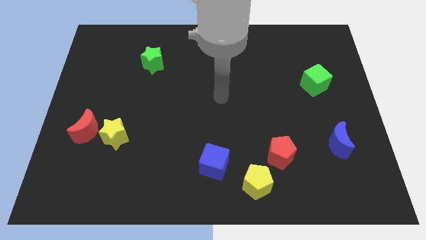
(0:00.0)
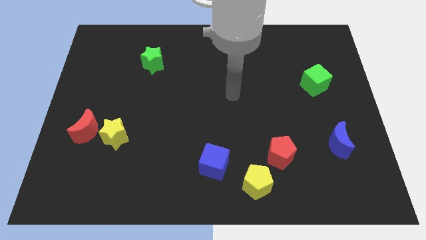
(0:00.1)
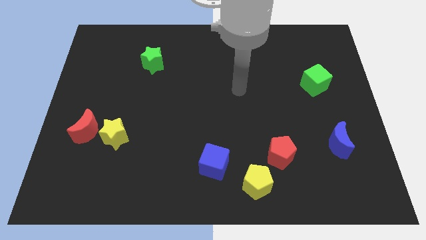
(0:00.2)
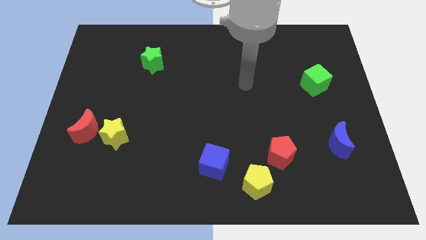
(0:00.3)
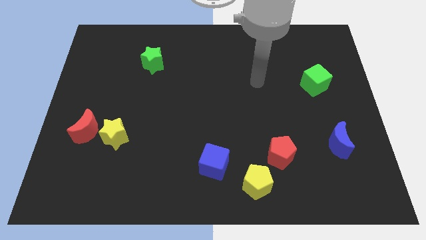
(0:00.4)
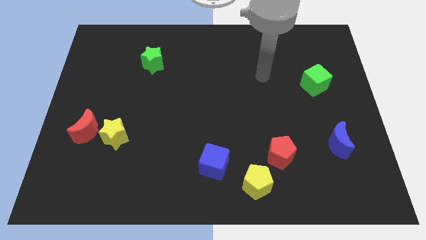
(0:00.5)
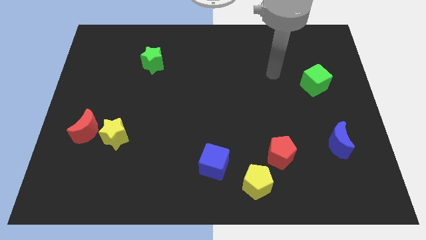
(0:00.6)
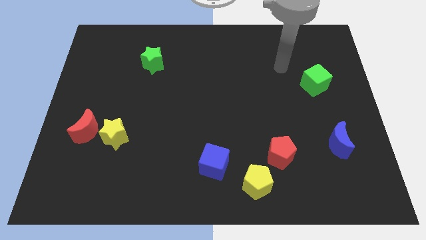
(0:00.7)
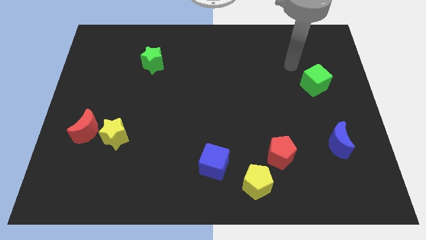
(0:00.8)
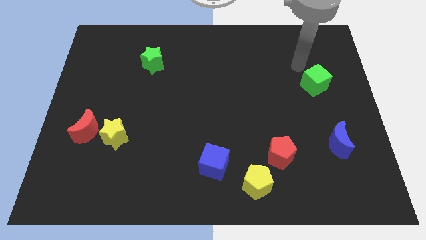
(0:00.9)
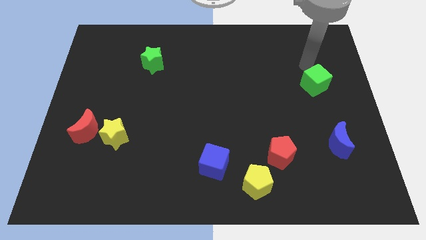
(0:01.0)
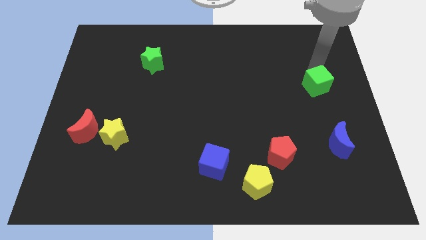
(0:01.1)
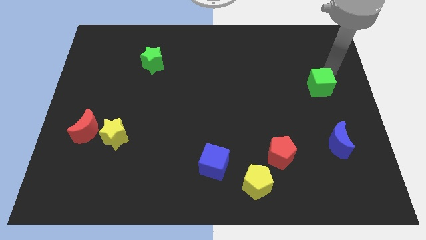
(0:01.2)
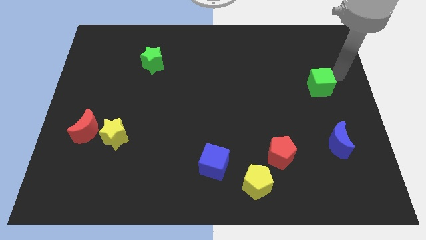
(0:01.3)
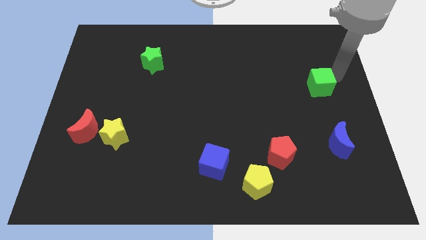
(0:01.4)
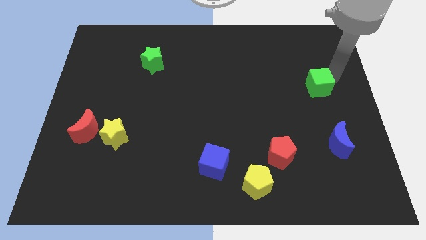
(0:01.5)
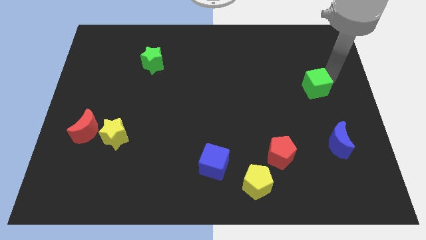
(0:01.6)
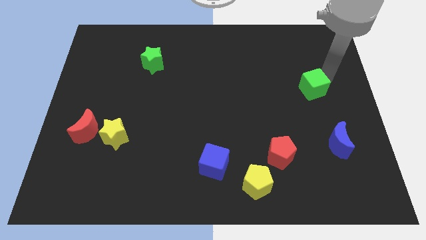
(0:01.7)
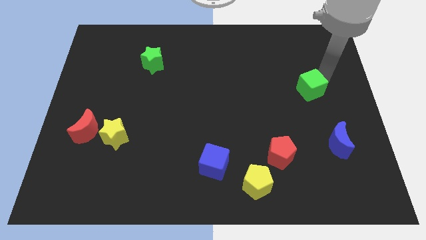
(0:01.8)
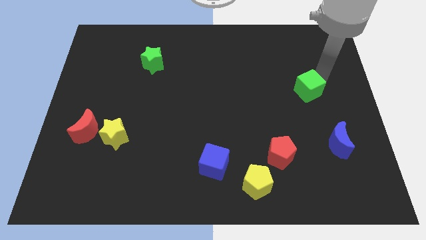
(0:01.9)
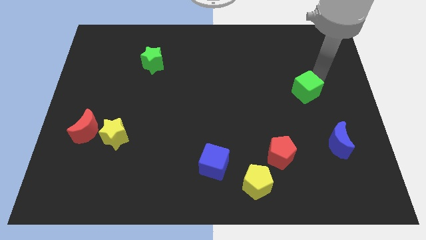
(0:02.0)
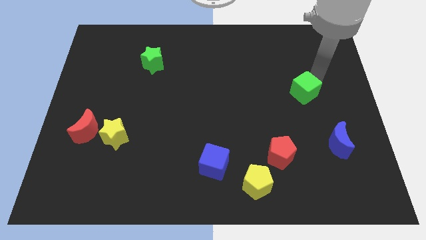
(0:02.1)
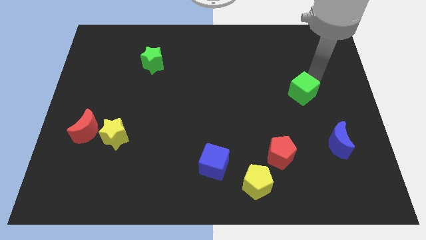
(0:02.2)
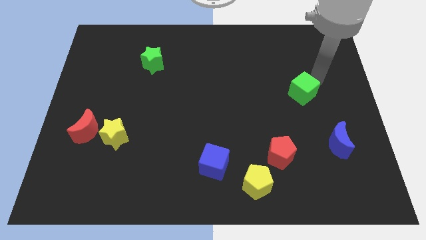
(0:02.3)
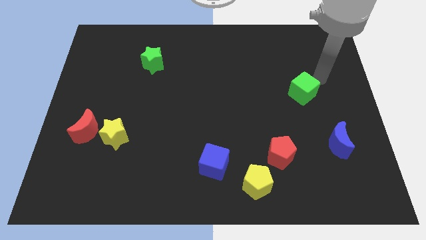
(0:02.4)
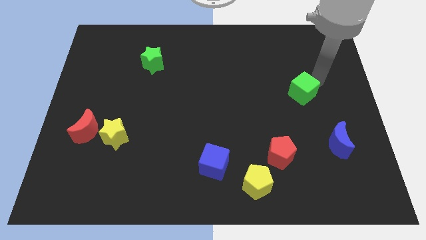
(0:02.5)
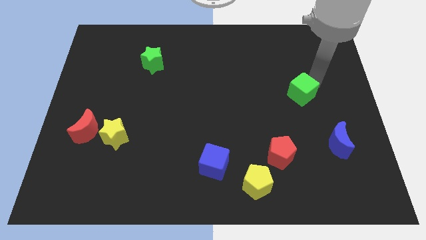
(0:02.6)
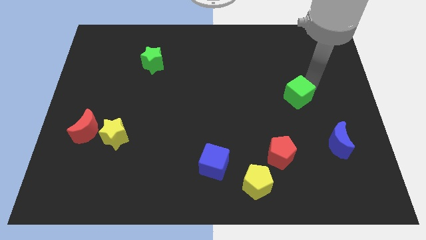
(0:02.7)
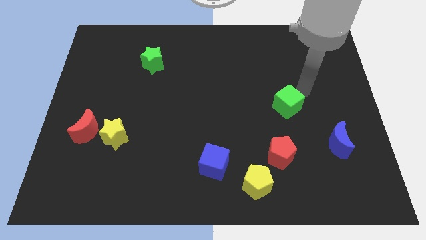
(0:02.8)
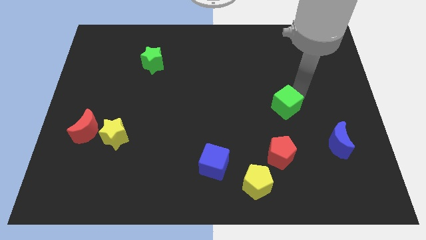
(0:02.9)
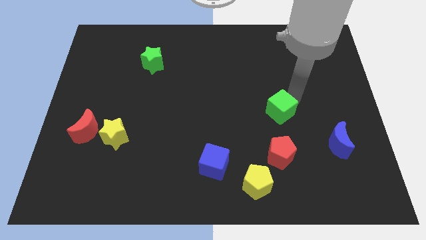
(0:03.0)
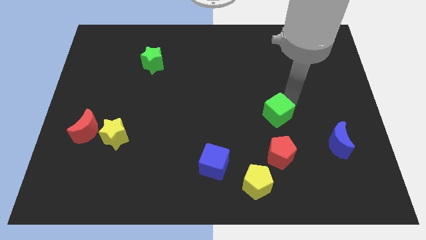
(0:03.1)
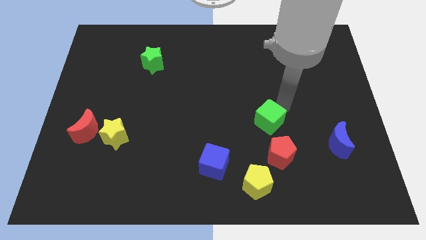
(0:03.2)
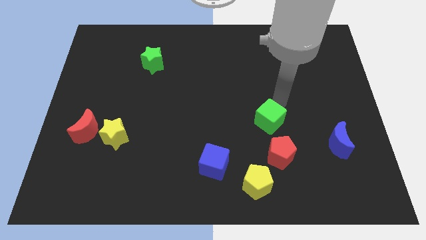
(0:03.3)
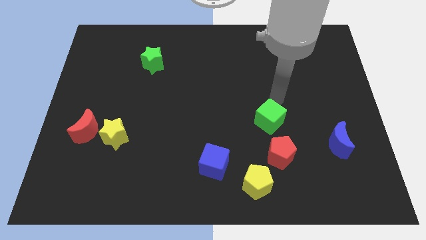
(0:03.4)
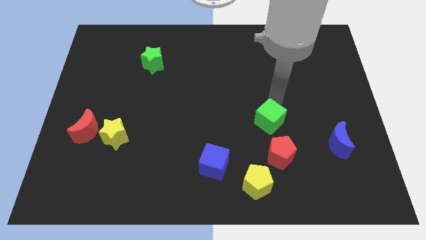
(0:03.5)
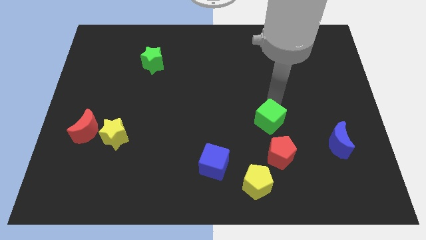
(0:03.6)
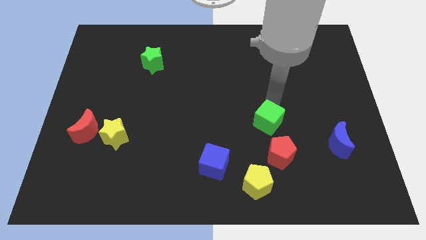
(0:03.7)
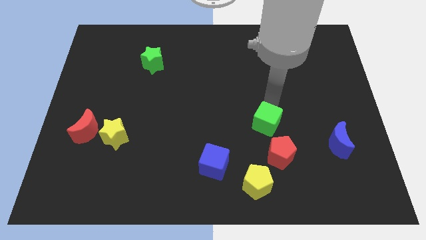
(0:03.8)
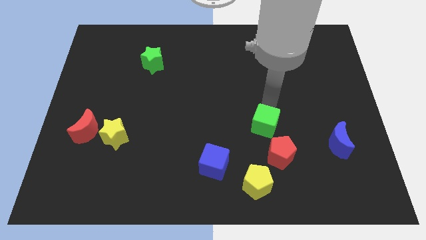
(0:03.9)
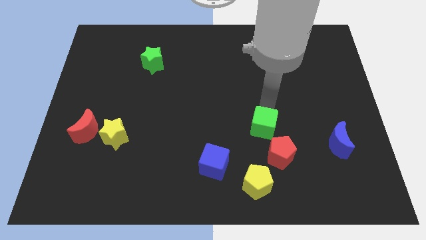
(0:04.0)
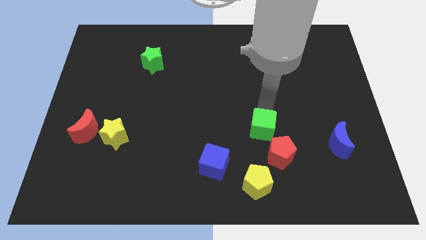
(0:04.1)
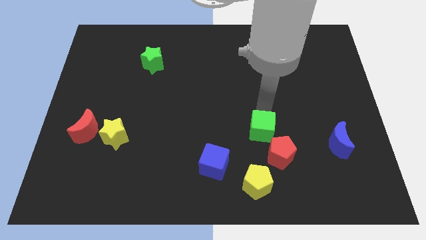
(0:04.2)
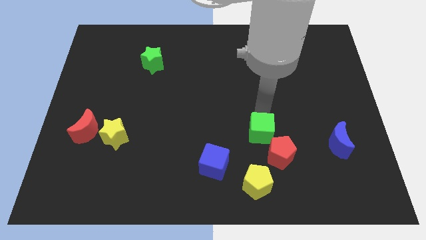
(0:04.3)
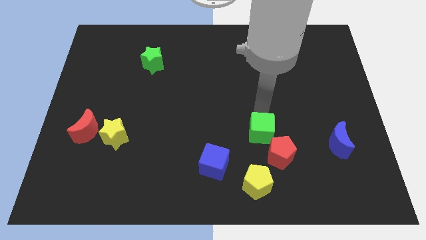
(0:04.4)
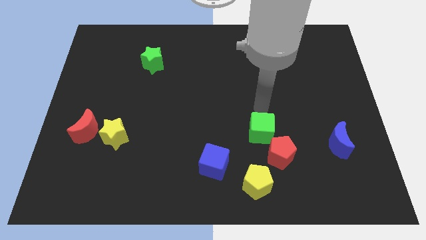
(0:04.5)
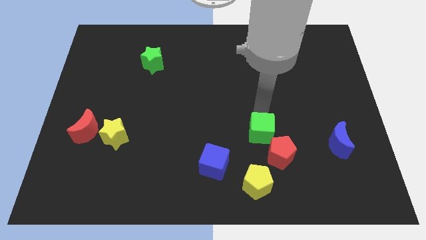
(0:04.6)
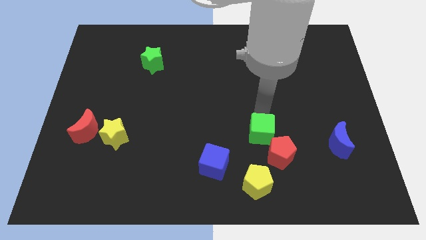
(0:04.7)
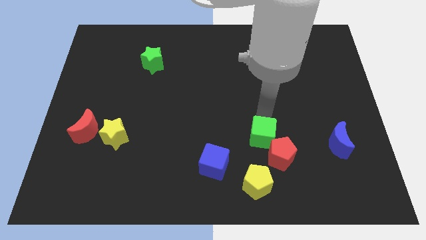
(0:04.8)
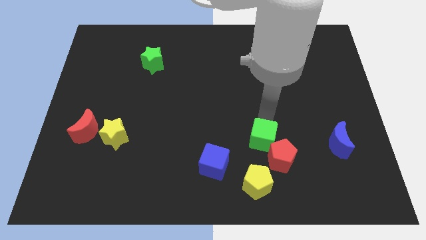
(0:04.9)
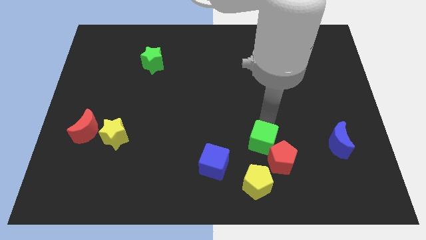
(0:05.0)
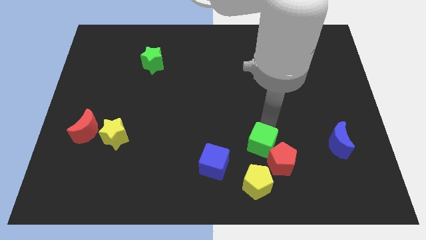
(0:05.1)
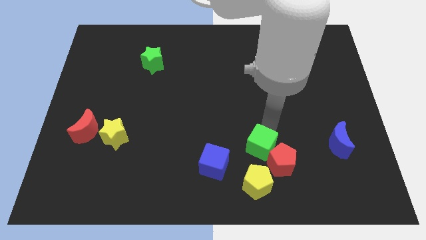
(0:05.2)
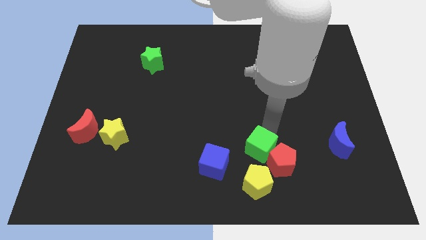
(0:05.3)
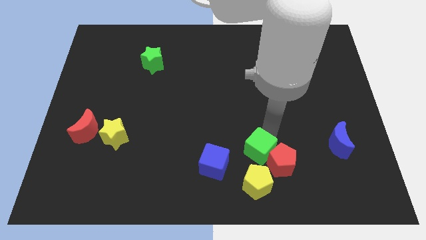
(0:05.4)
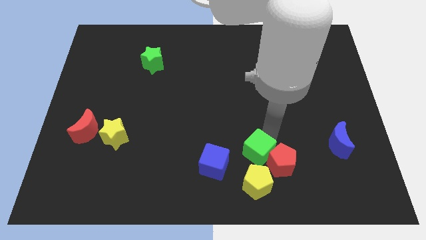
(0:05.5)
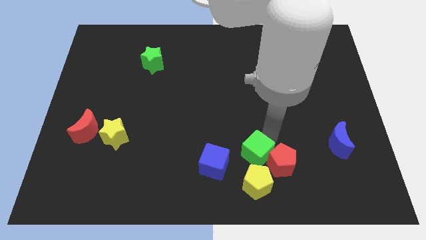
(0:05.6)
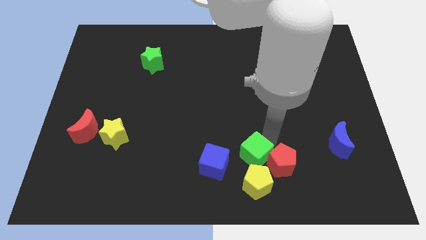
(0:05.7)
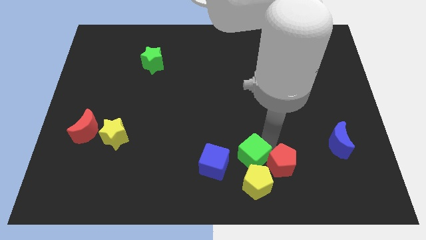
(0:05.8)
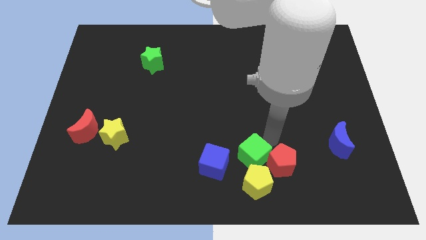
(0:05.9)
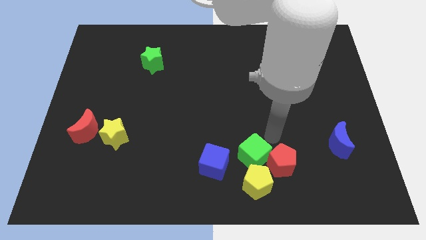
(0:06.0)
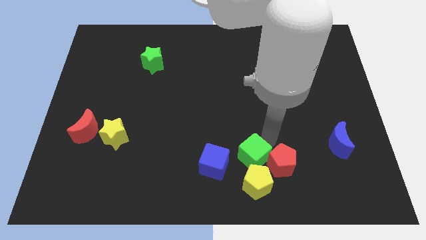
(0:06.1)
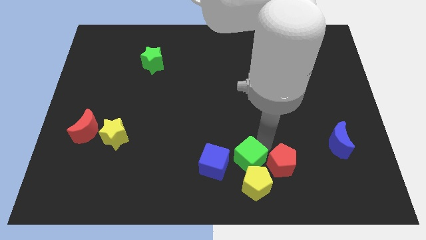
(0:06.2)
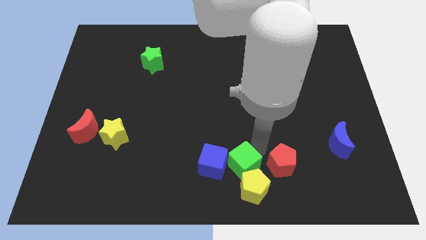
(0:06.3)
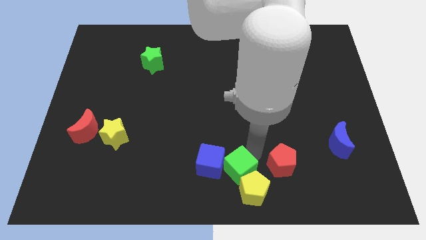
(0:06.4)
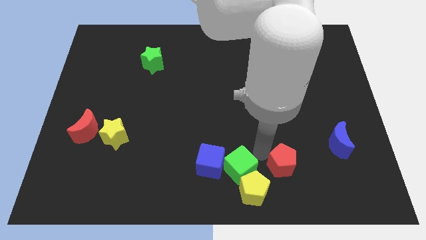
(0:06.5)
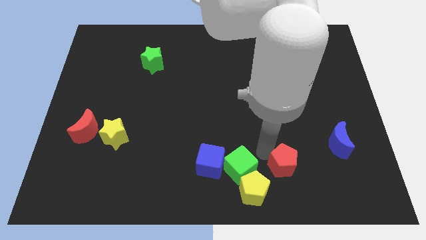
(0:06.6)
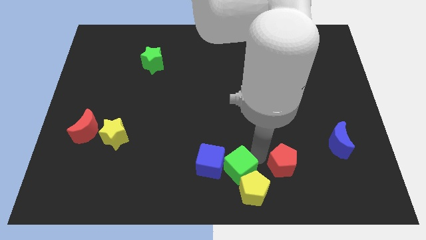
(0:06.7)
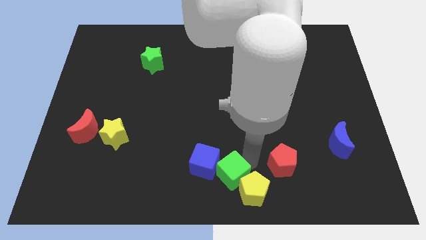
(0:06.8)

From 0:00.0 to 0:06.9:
move the green cube left of the yellow pentagon

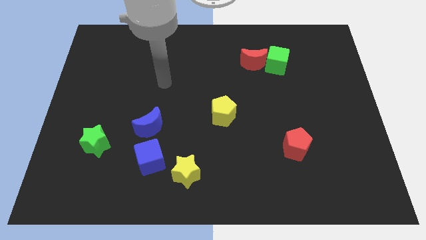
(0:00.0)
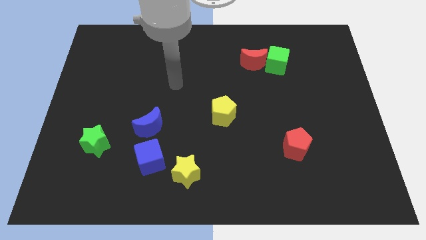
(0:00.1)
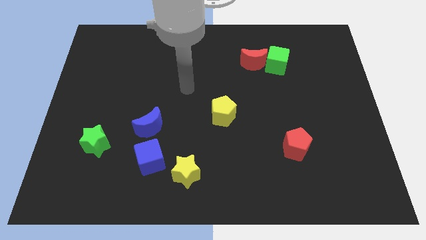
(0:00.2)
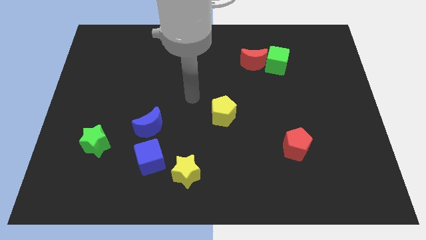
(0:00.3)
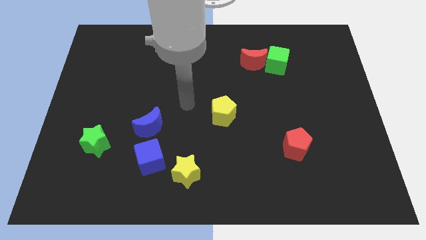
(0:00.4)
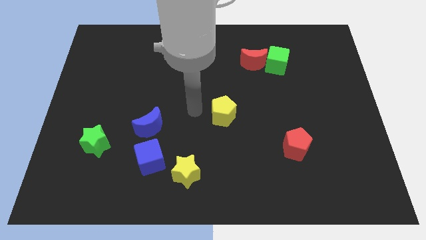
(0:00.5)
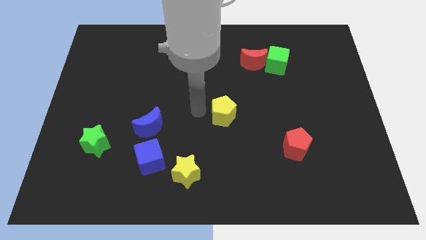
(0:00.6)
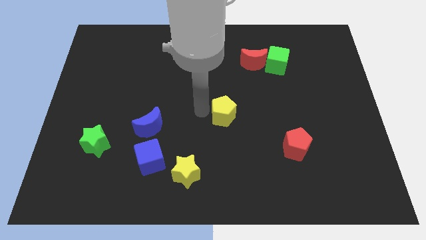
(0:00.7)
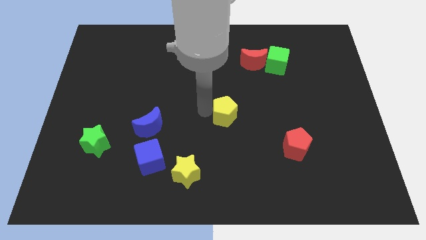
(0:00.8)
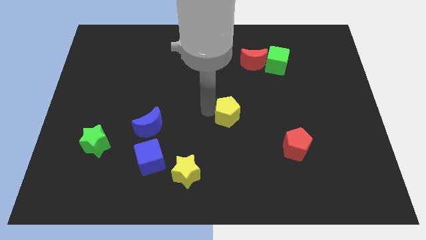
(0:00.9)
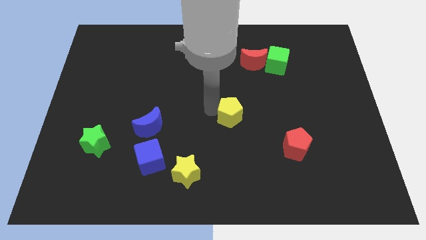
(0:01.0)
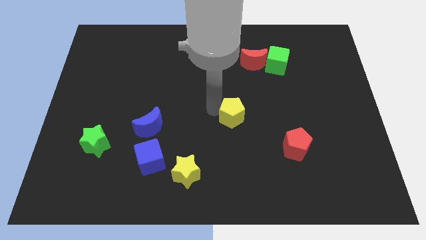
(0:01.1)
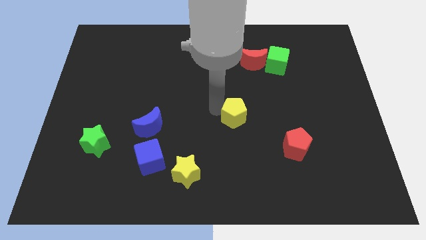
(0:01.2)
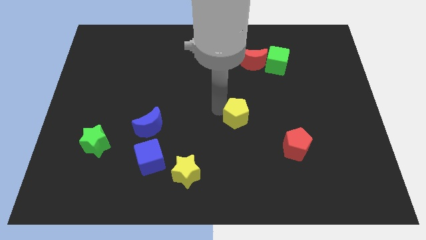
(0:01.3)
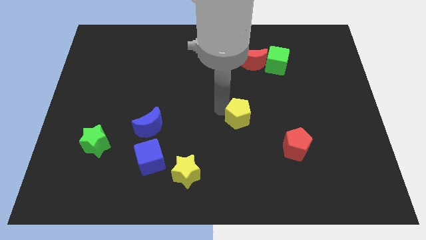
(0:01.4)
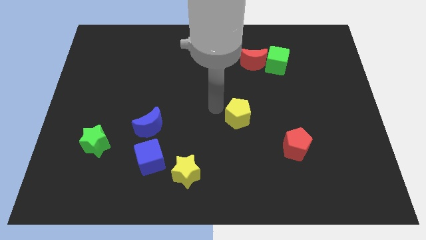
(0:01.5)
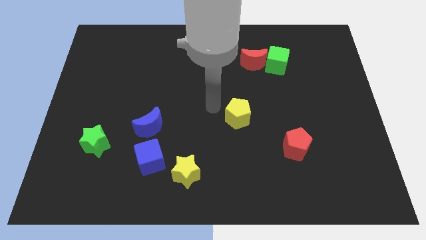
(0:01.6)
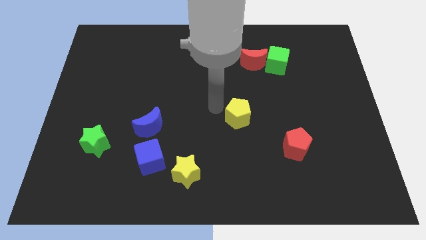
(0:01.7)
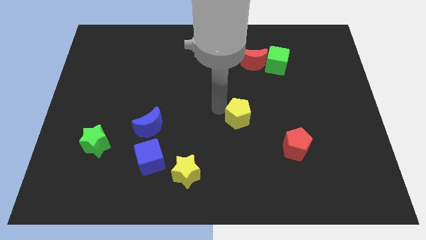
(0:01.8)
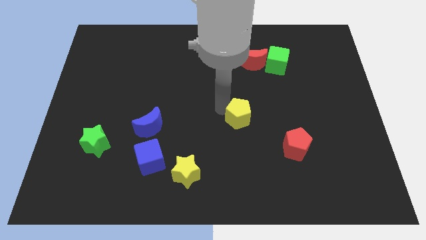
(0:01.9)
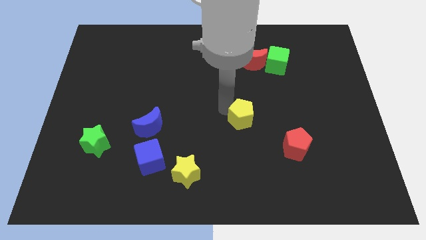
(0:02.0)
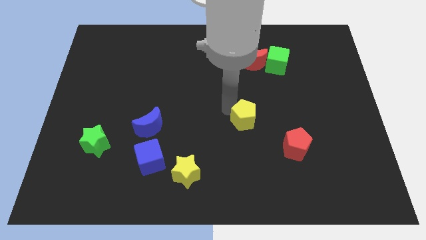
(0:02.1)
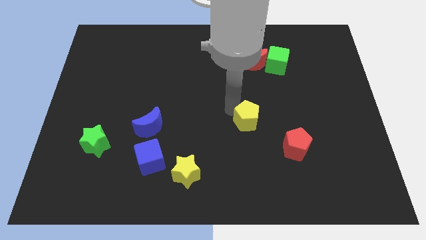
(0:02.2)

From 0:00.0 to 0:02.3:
move the yellow pentagon to the top left side of the red pentagon
